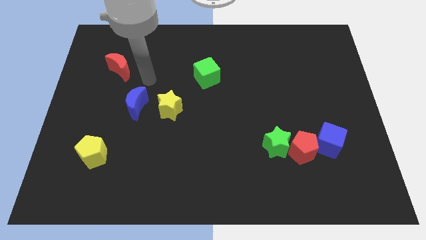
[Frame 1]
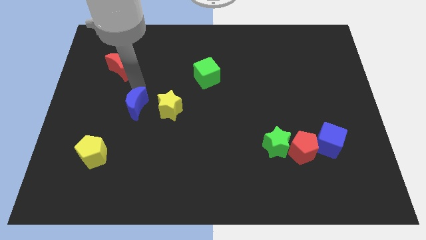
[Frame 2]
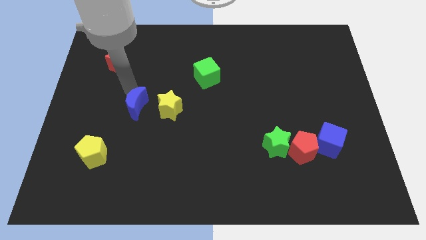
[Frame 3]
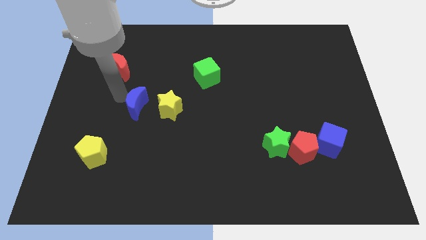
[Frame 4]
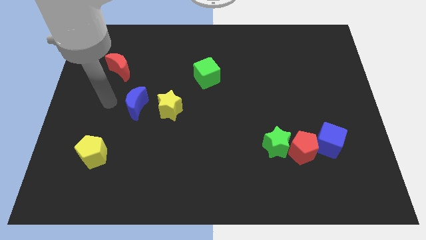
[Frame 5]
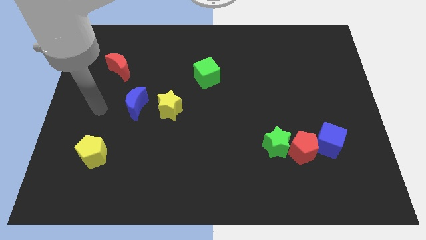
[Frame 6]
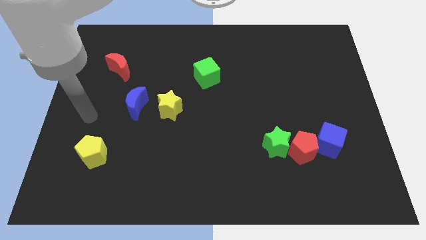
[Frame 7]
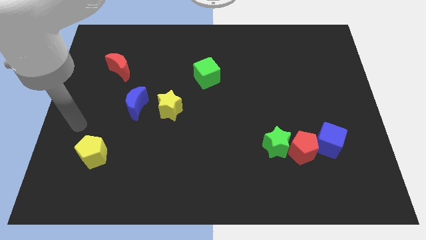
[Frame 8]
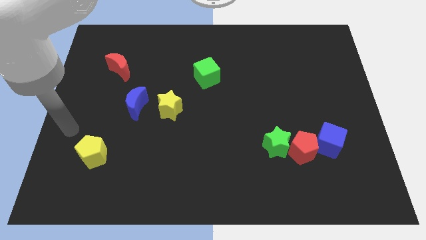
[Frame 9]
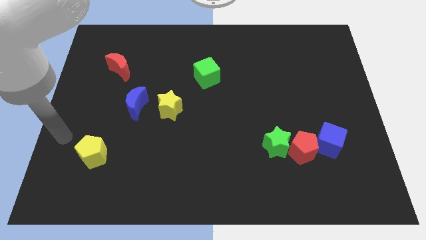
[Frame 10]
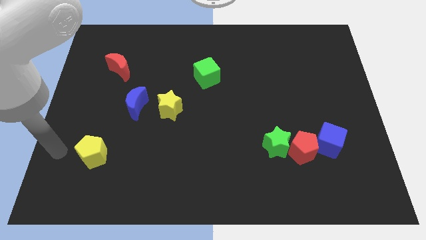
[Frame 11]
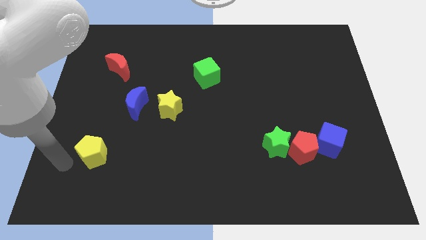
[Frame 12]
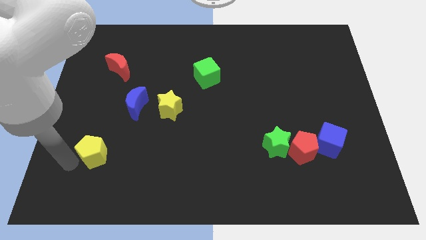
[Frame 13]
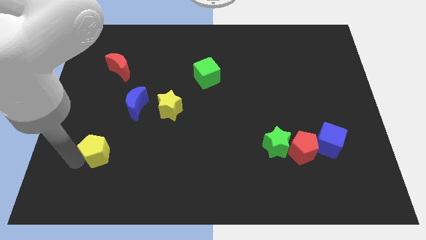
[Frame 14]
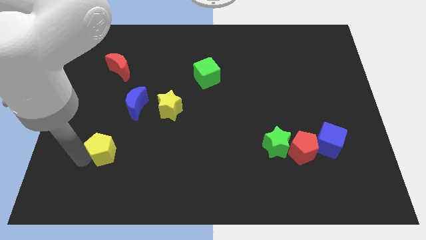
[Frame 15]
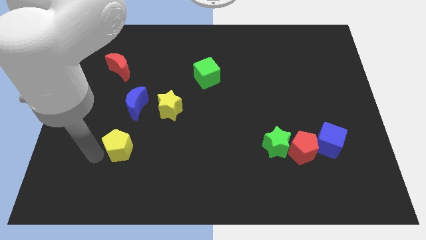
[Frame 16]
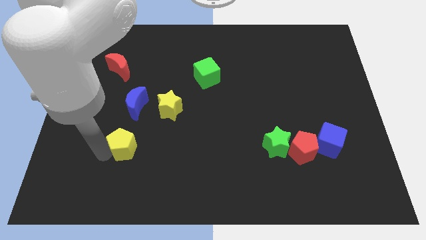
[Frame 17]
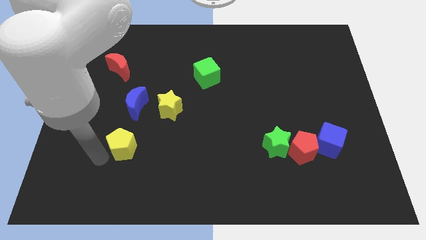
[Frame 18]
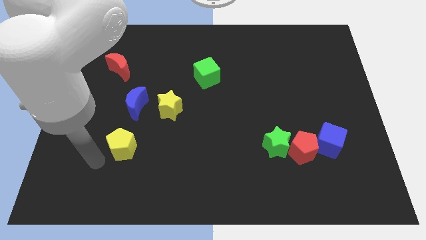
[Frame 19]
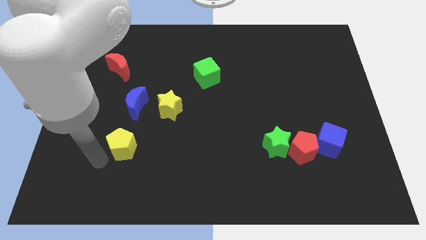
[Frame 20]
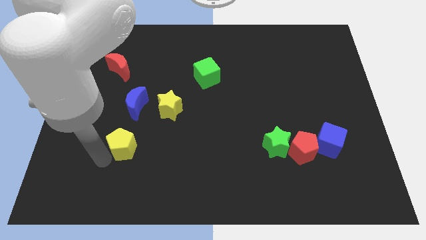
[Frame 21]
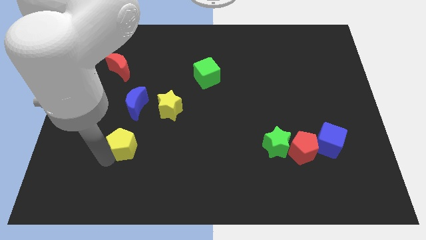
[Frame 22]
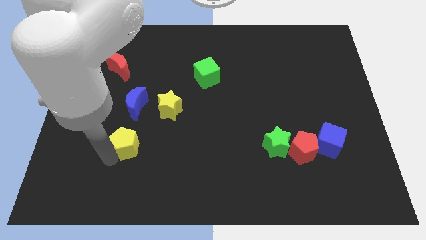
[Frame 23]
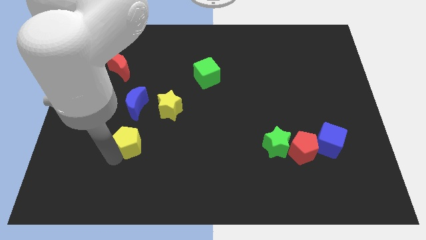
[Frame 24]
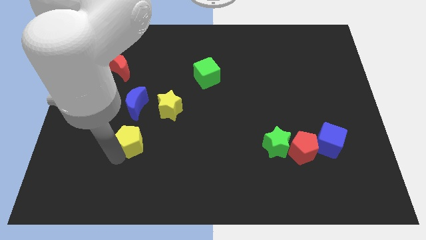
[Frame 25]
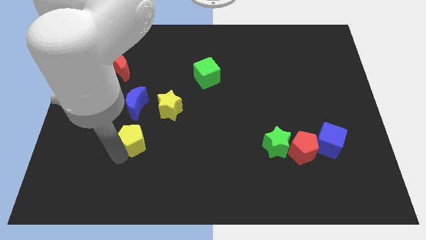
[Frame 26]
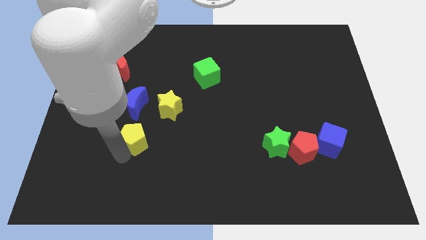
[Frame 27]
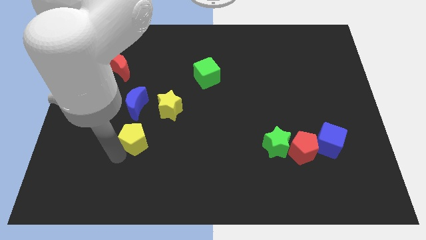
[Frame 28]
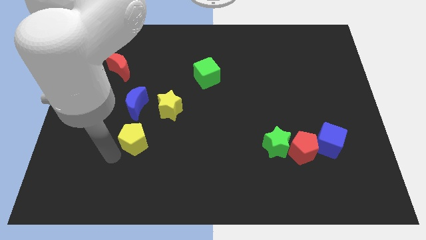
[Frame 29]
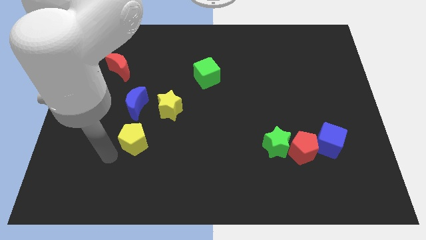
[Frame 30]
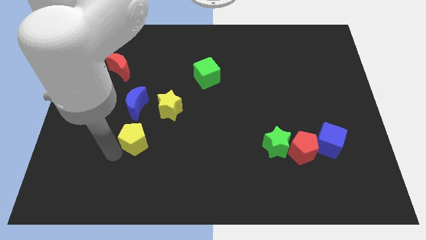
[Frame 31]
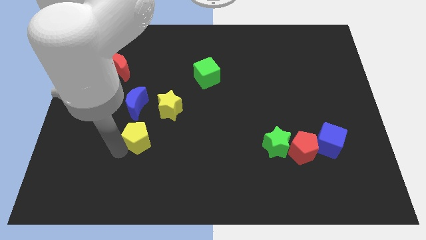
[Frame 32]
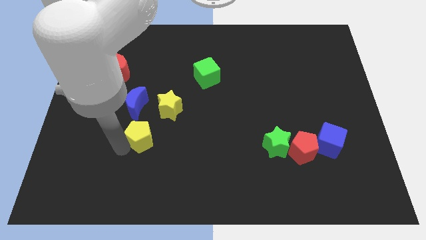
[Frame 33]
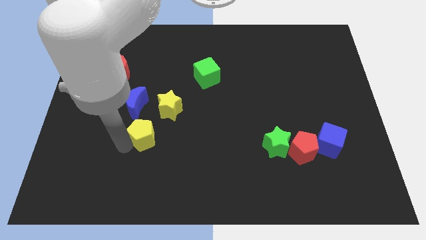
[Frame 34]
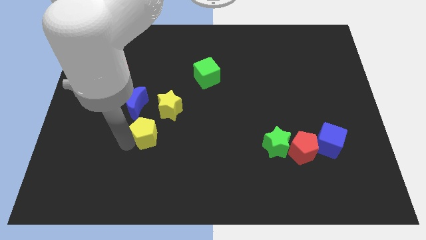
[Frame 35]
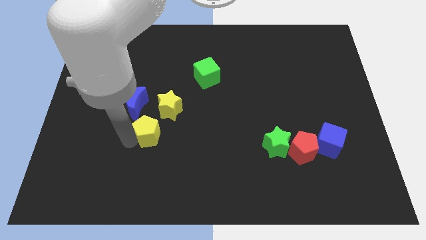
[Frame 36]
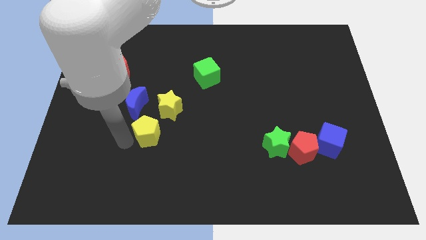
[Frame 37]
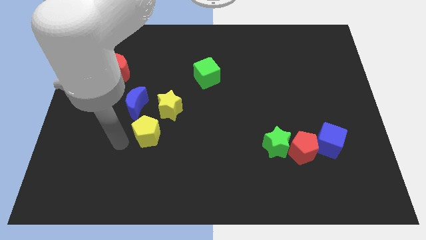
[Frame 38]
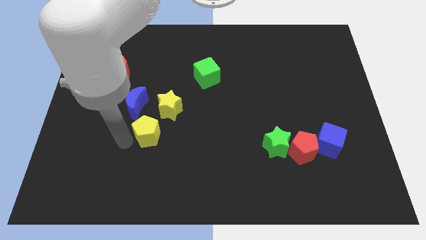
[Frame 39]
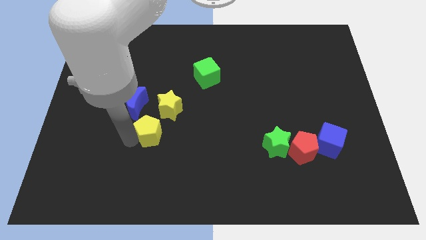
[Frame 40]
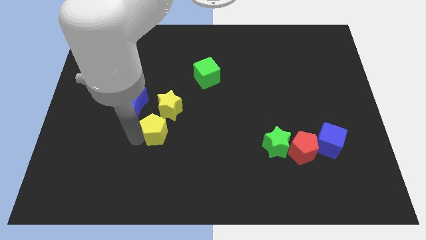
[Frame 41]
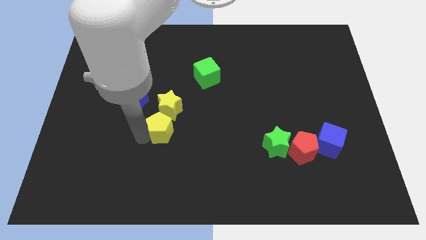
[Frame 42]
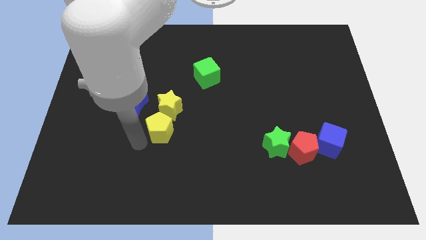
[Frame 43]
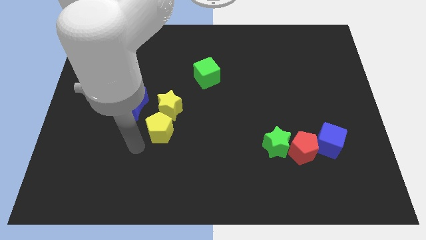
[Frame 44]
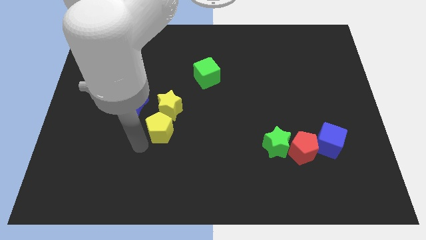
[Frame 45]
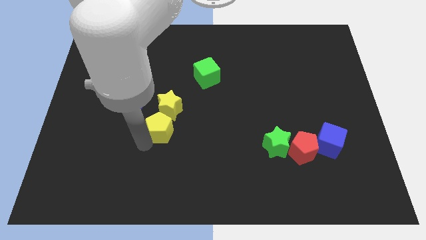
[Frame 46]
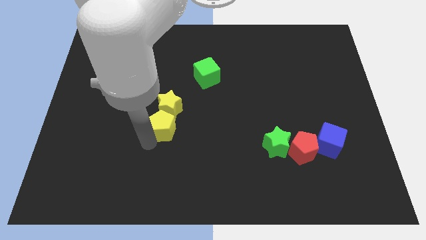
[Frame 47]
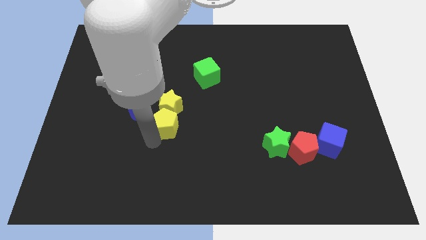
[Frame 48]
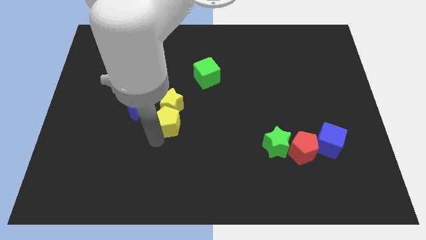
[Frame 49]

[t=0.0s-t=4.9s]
slide the yellow pentagon to the middle of the board

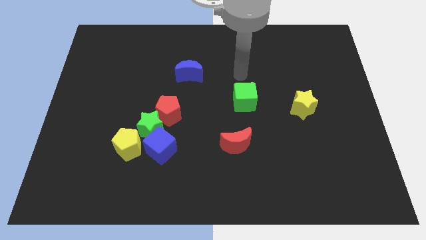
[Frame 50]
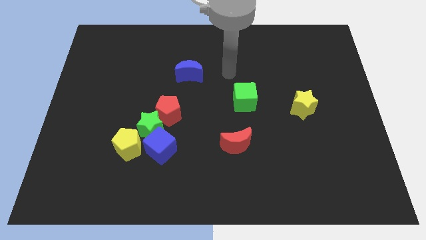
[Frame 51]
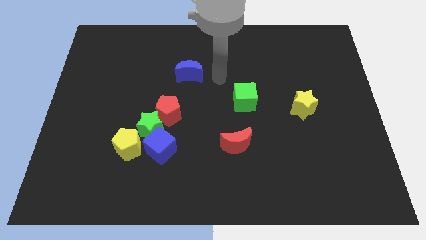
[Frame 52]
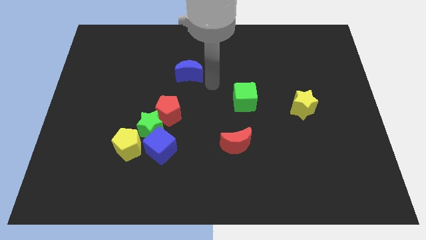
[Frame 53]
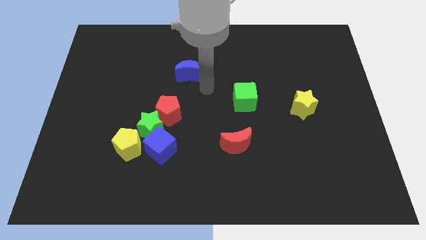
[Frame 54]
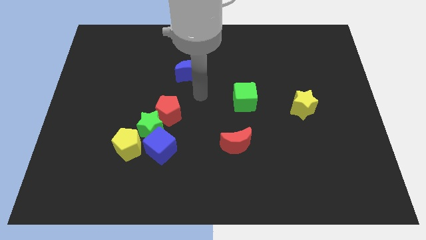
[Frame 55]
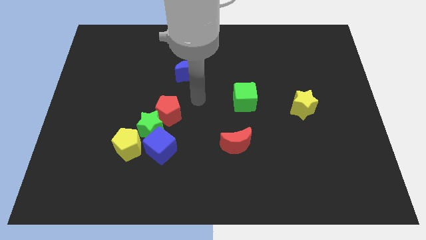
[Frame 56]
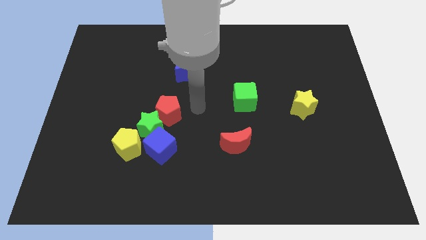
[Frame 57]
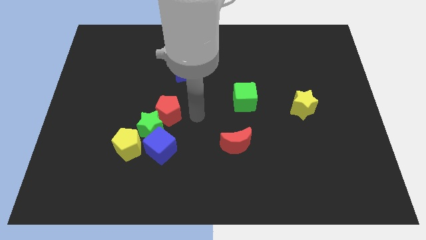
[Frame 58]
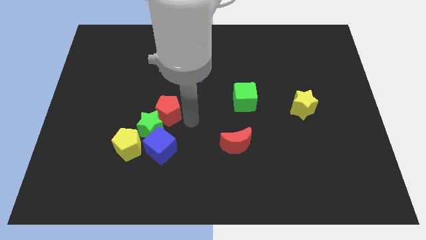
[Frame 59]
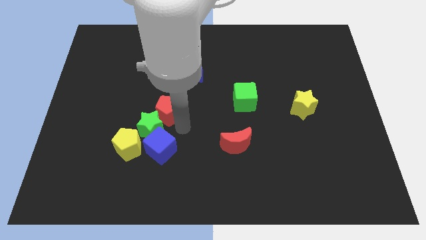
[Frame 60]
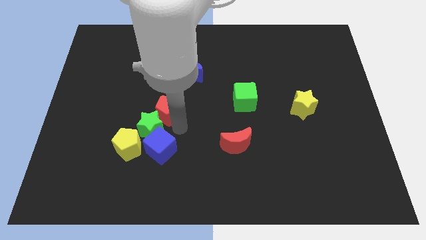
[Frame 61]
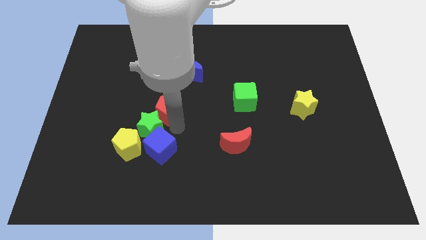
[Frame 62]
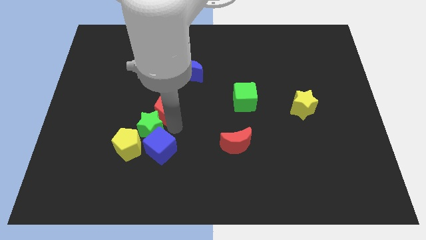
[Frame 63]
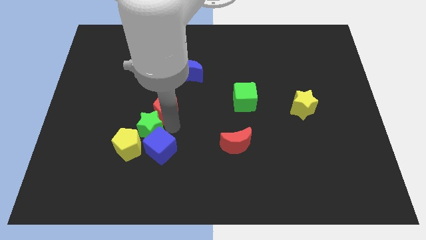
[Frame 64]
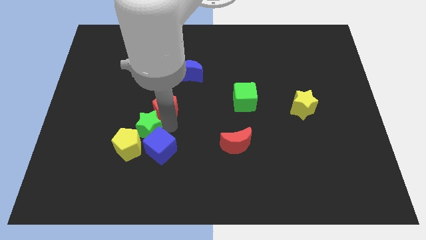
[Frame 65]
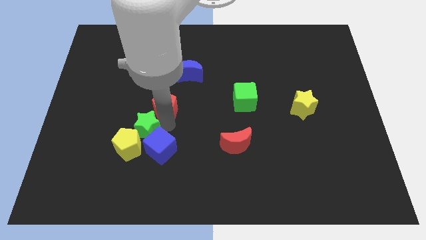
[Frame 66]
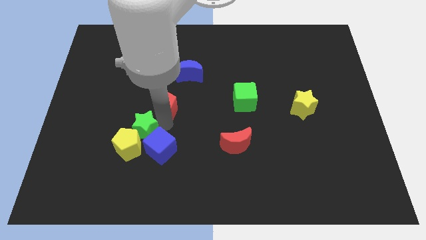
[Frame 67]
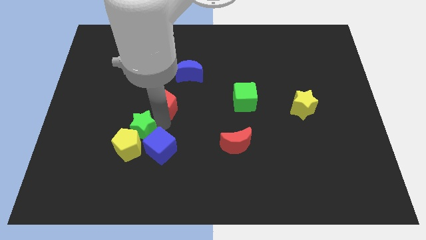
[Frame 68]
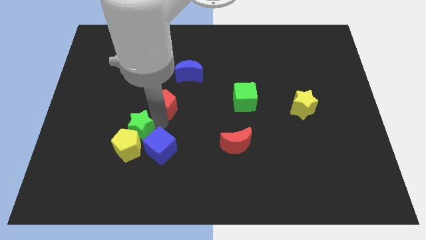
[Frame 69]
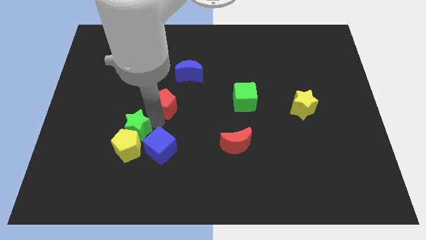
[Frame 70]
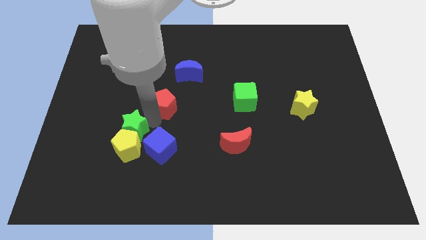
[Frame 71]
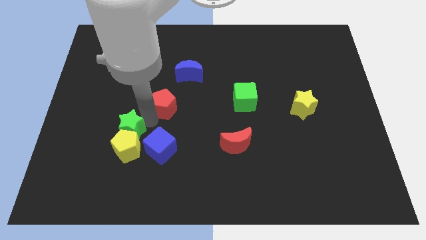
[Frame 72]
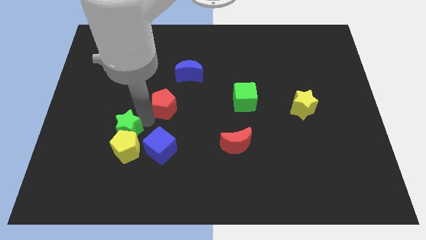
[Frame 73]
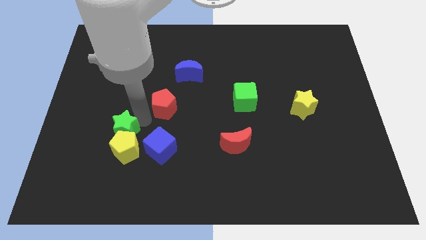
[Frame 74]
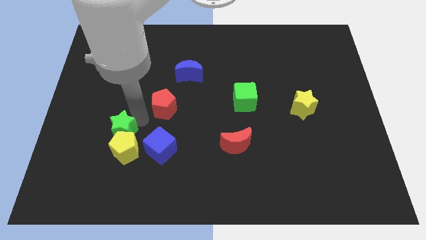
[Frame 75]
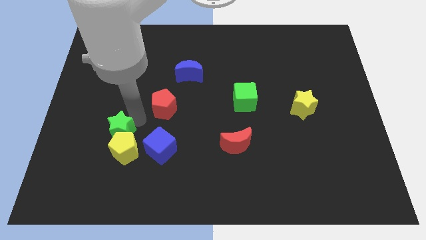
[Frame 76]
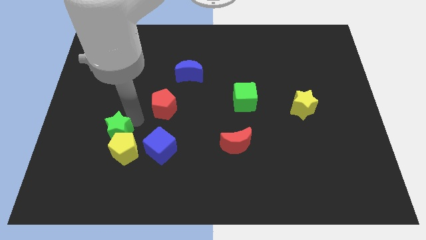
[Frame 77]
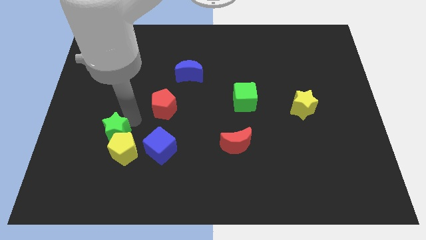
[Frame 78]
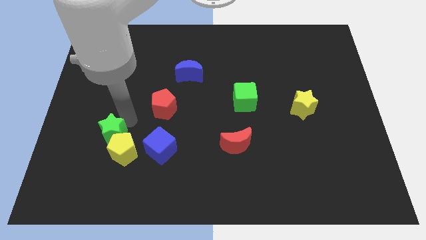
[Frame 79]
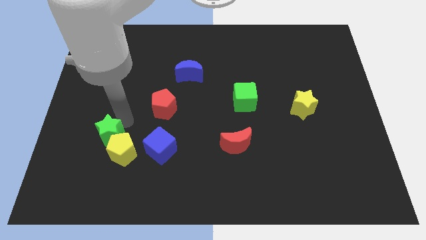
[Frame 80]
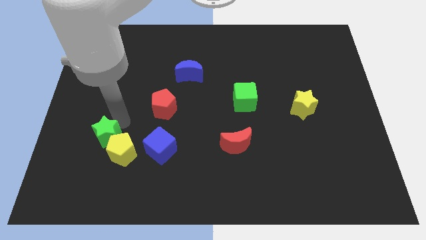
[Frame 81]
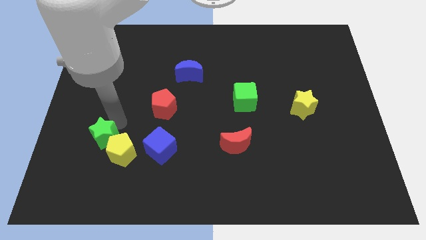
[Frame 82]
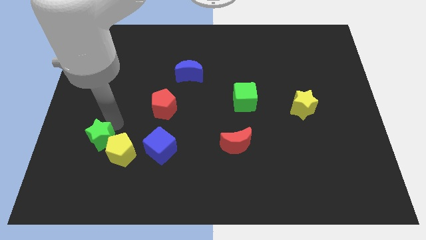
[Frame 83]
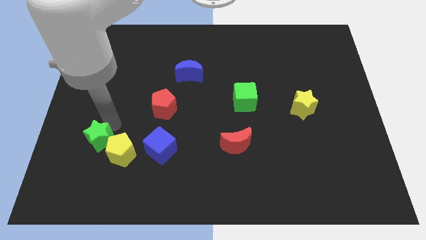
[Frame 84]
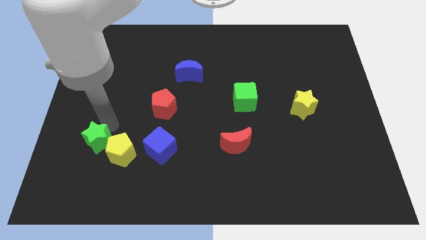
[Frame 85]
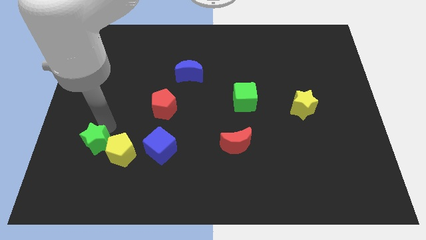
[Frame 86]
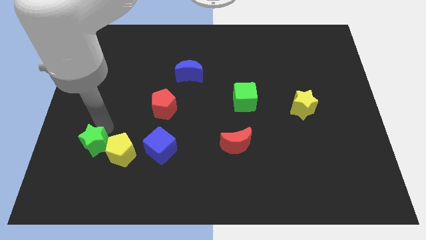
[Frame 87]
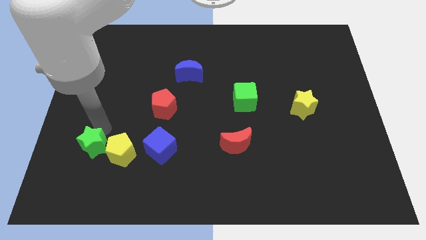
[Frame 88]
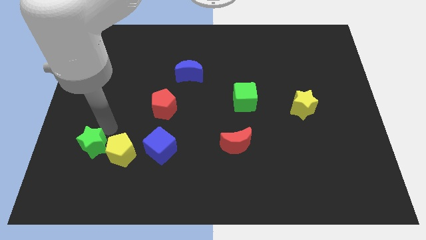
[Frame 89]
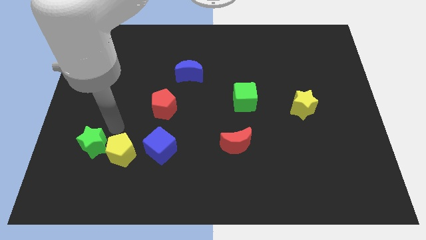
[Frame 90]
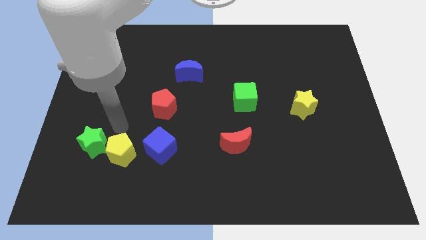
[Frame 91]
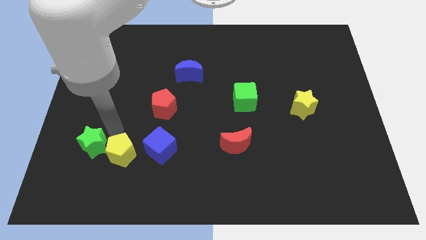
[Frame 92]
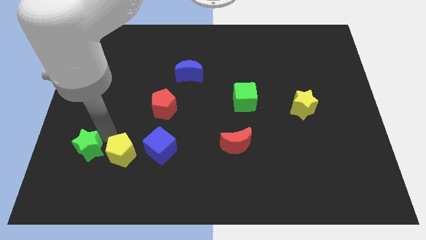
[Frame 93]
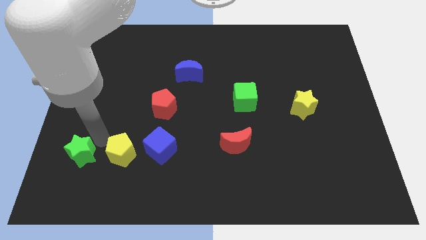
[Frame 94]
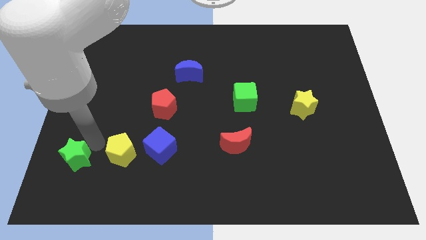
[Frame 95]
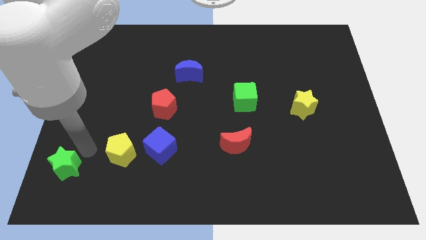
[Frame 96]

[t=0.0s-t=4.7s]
put the green star to the bottom left of the board
